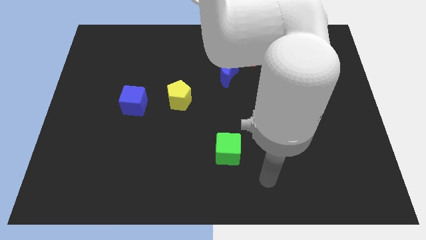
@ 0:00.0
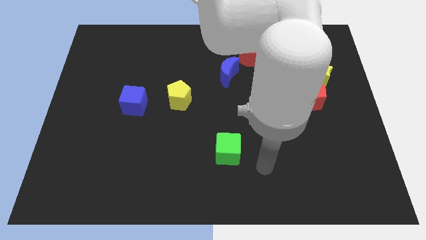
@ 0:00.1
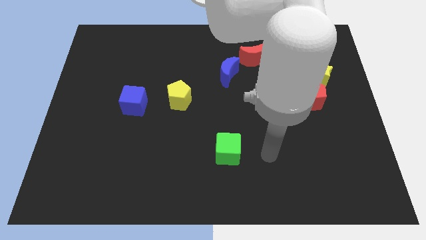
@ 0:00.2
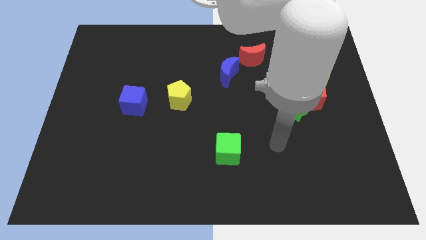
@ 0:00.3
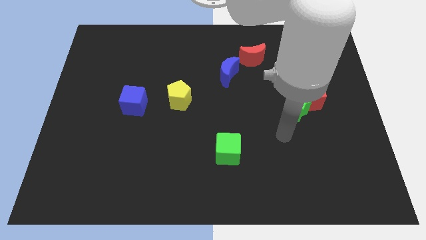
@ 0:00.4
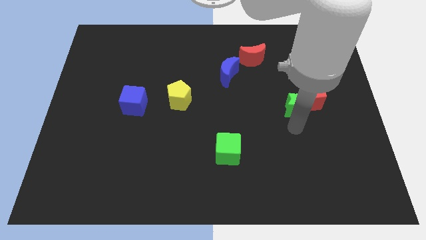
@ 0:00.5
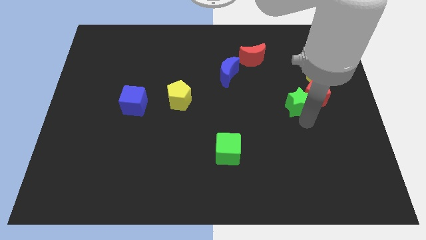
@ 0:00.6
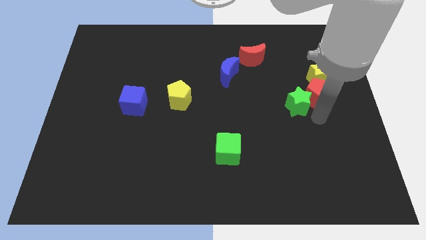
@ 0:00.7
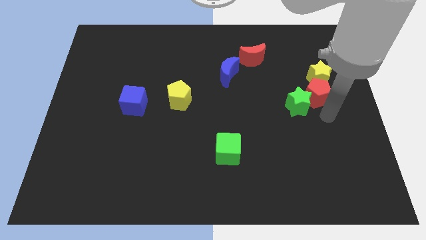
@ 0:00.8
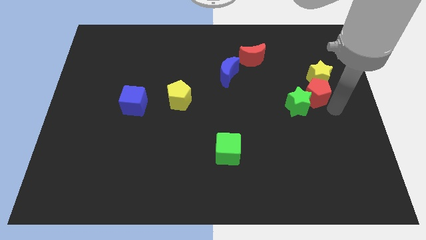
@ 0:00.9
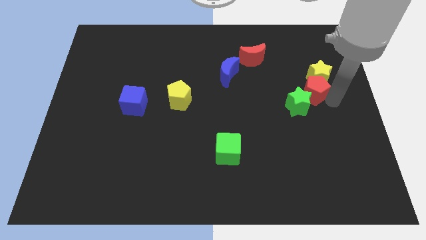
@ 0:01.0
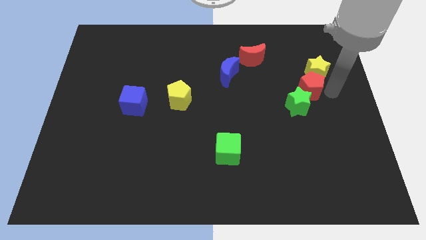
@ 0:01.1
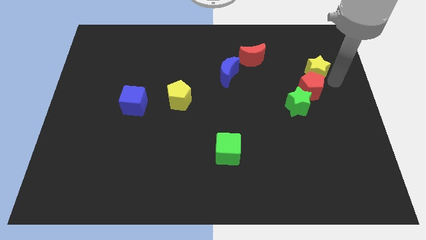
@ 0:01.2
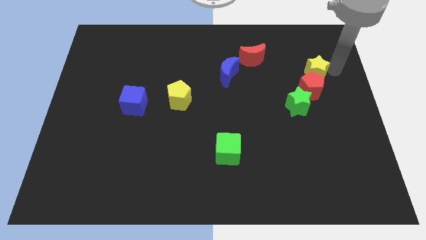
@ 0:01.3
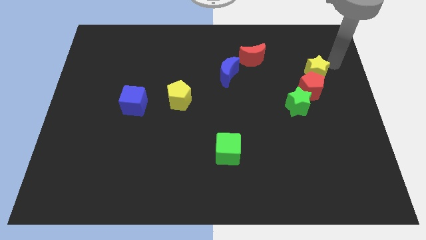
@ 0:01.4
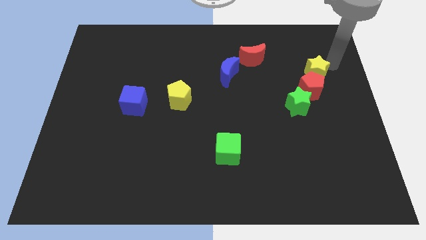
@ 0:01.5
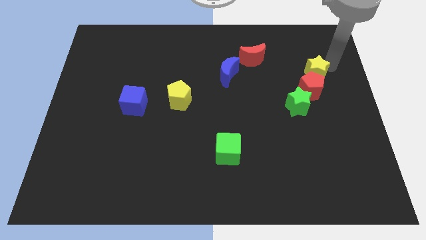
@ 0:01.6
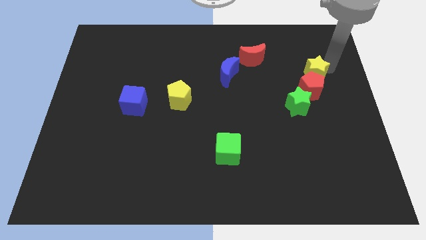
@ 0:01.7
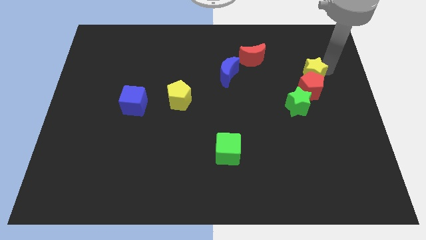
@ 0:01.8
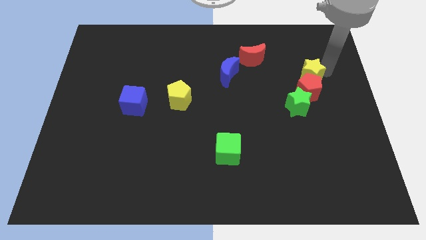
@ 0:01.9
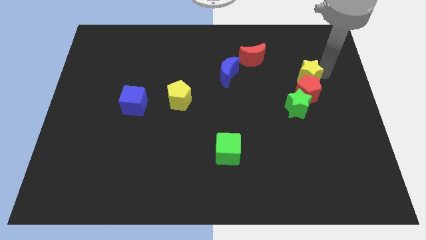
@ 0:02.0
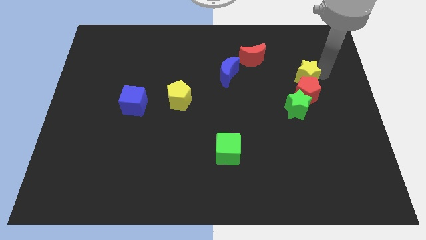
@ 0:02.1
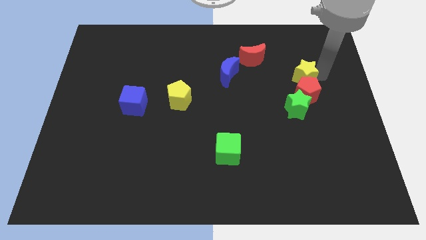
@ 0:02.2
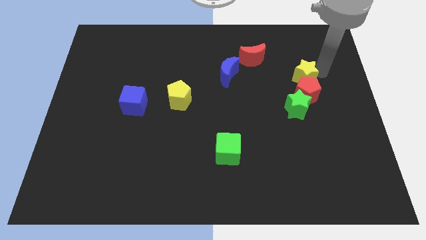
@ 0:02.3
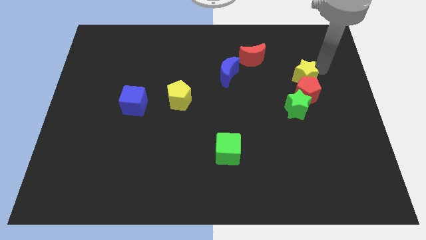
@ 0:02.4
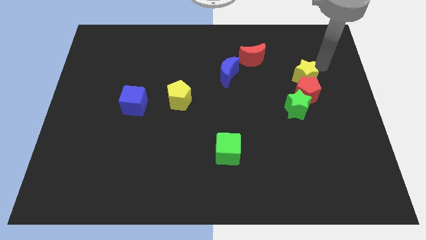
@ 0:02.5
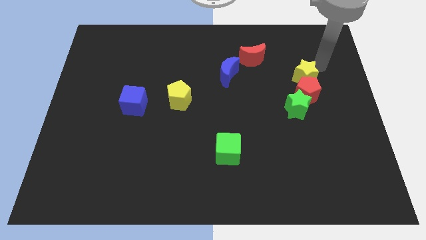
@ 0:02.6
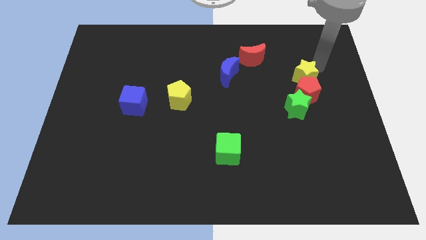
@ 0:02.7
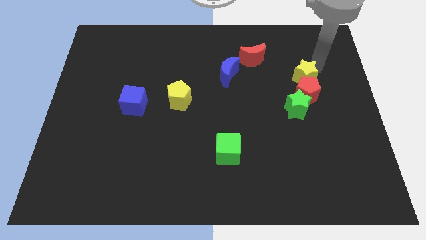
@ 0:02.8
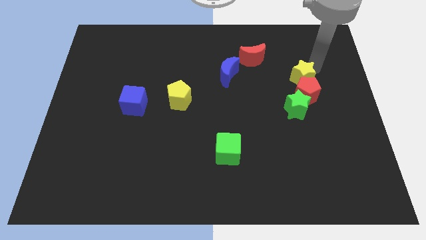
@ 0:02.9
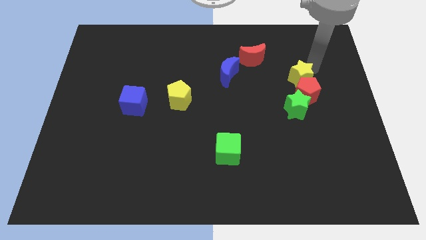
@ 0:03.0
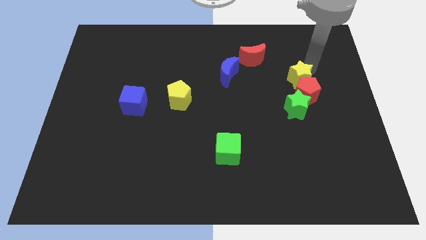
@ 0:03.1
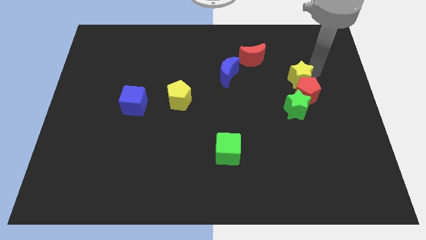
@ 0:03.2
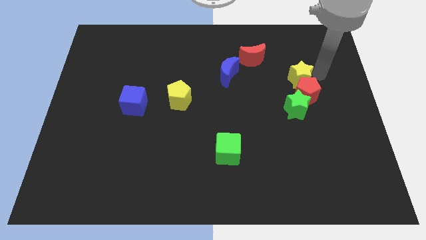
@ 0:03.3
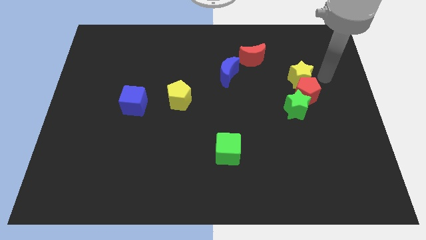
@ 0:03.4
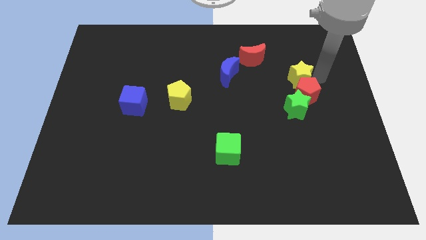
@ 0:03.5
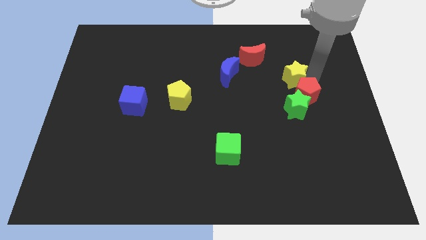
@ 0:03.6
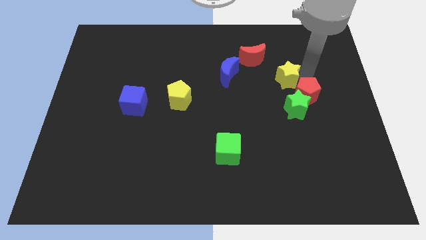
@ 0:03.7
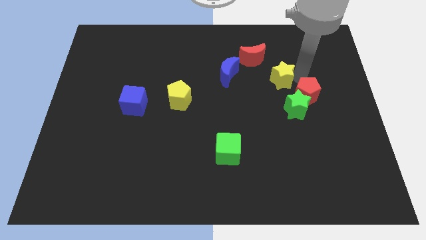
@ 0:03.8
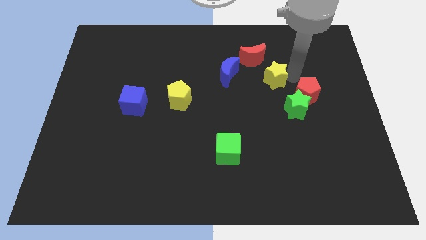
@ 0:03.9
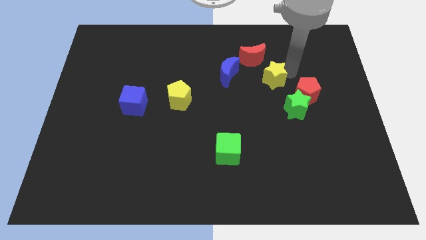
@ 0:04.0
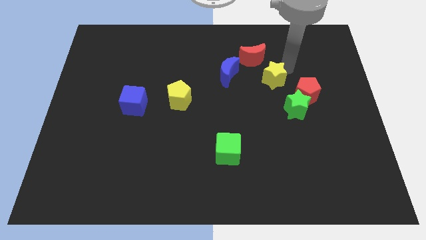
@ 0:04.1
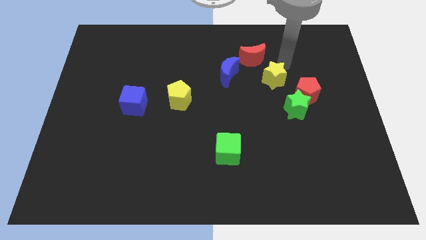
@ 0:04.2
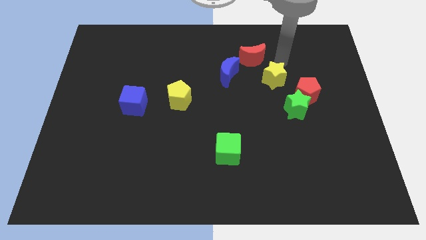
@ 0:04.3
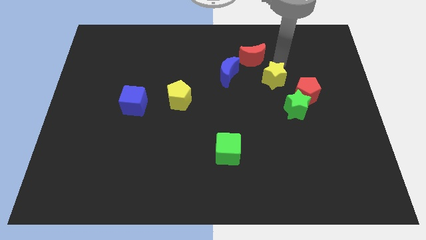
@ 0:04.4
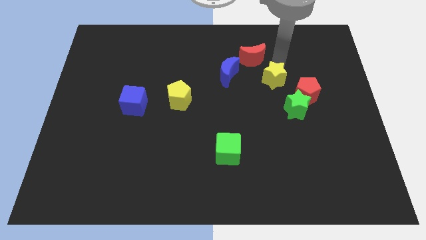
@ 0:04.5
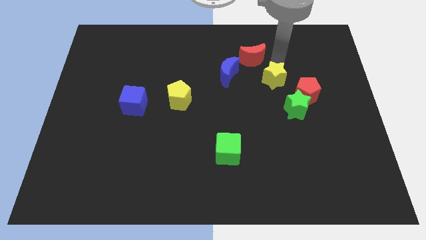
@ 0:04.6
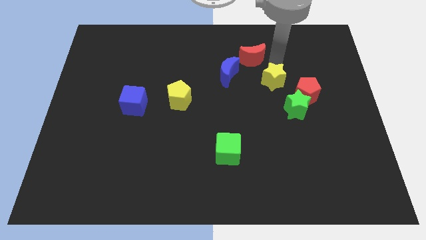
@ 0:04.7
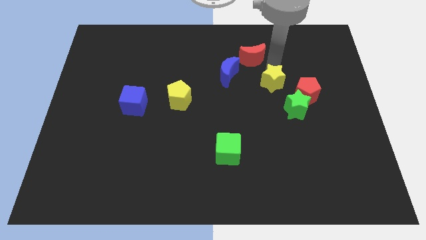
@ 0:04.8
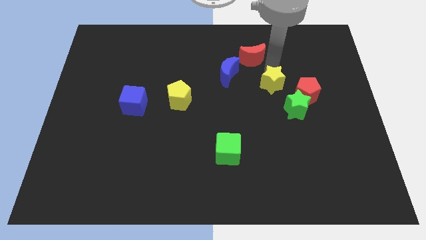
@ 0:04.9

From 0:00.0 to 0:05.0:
push the yellow star a little downwards and to the left diagonally

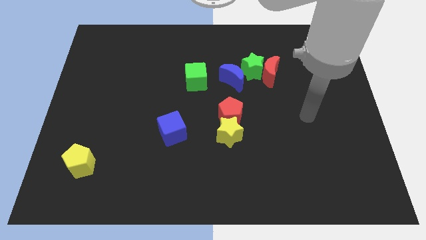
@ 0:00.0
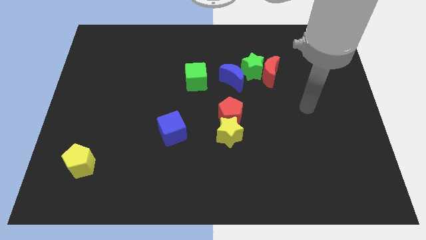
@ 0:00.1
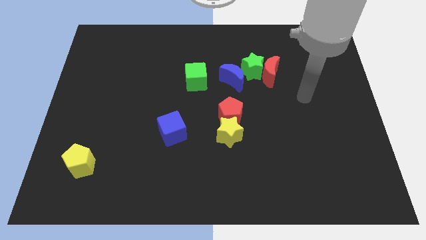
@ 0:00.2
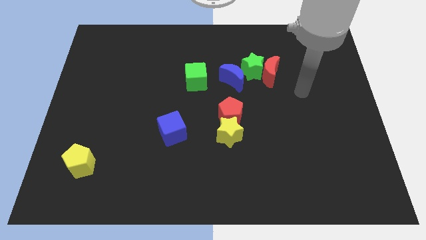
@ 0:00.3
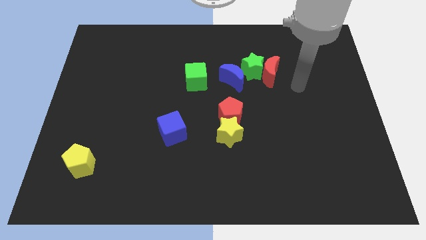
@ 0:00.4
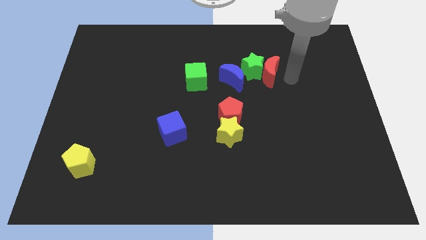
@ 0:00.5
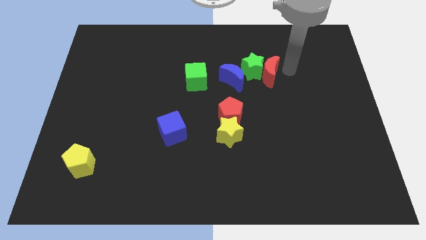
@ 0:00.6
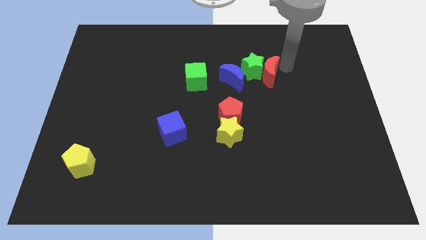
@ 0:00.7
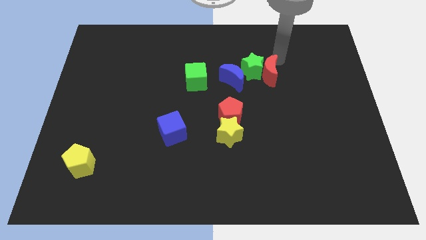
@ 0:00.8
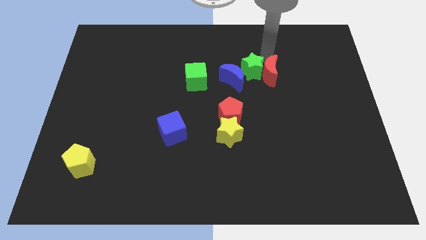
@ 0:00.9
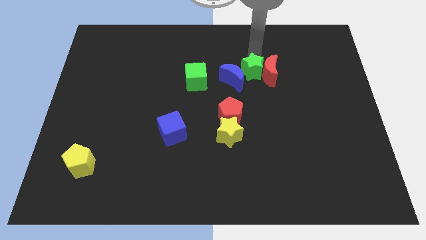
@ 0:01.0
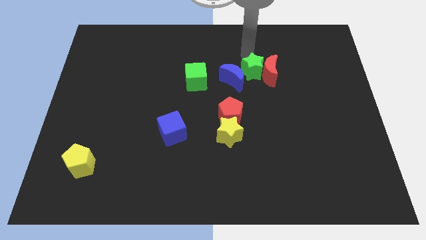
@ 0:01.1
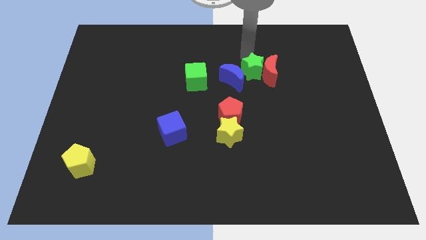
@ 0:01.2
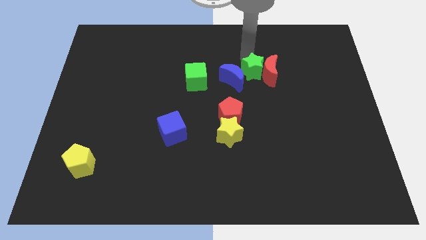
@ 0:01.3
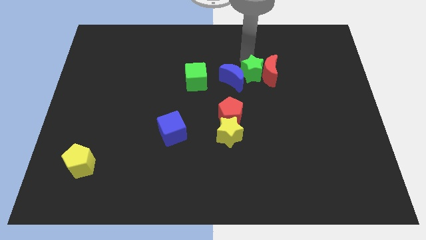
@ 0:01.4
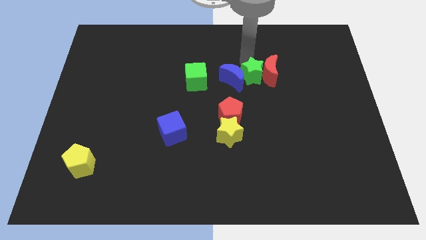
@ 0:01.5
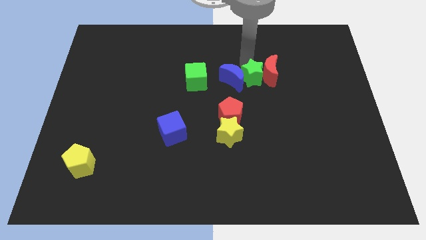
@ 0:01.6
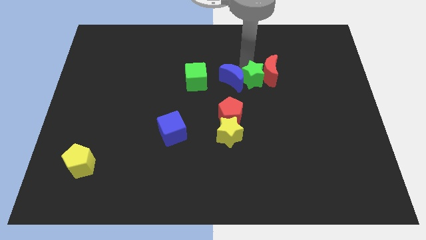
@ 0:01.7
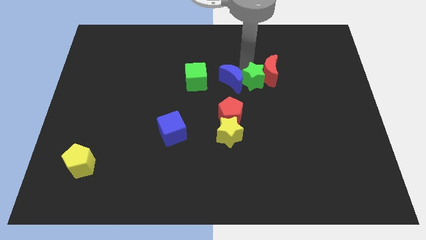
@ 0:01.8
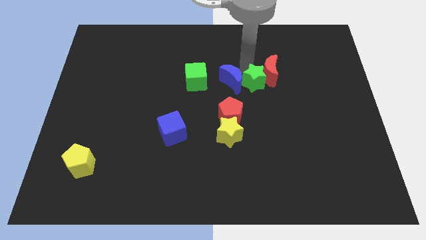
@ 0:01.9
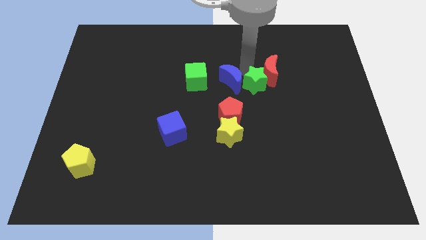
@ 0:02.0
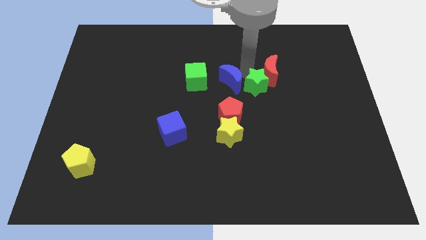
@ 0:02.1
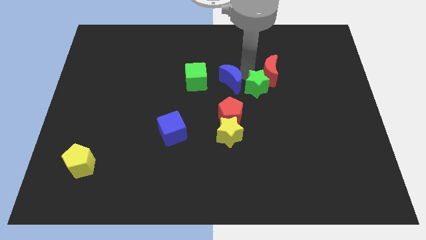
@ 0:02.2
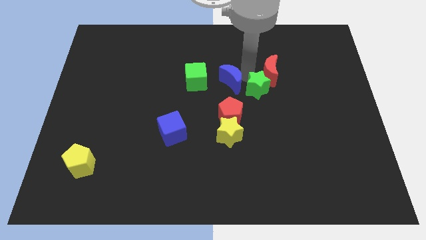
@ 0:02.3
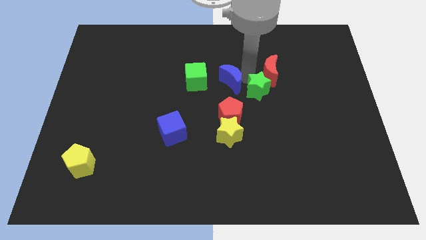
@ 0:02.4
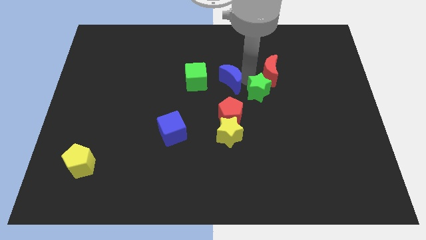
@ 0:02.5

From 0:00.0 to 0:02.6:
push the green star slightly downwards

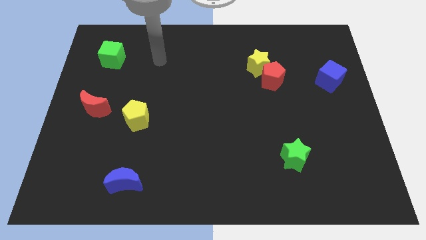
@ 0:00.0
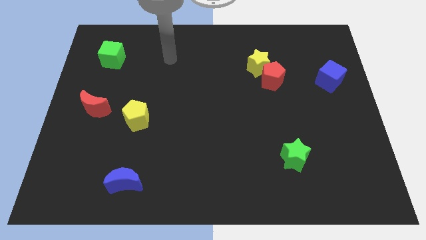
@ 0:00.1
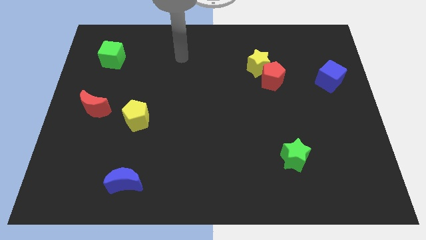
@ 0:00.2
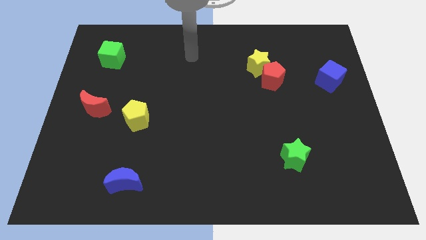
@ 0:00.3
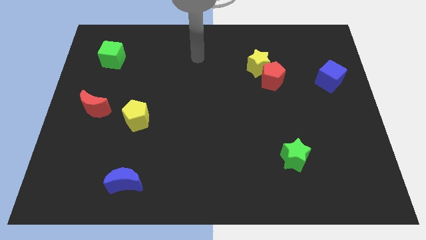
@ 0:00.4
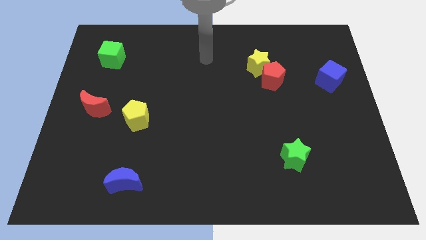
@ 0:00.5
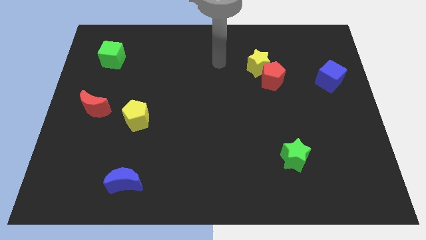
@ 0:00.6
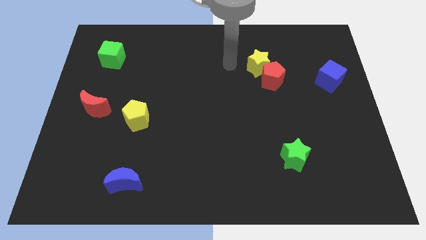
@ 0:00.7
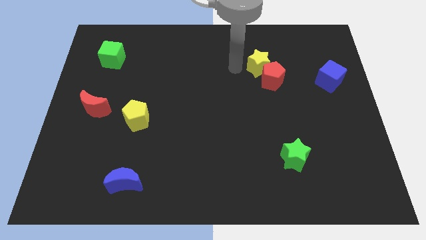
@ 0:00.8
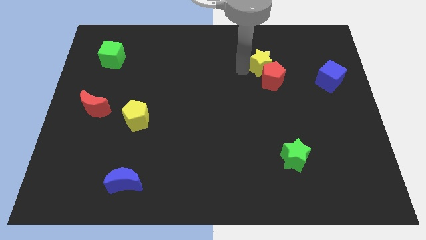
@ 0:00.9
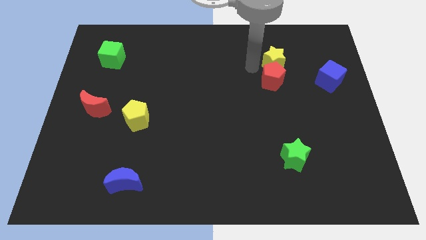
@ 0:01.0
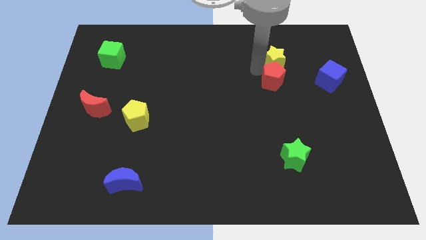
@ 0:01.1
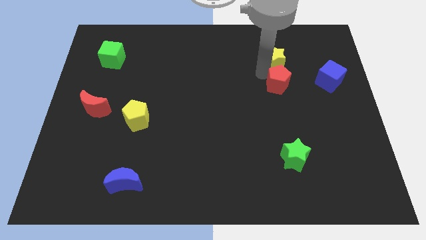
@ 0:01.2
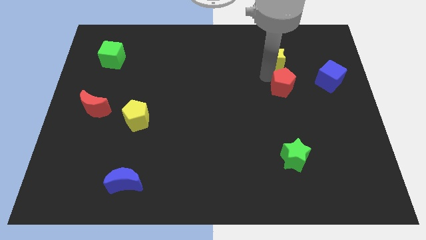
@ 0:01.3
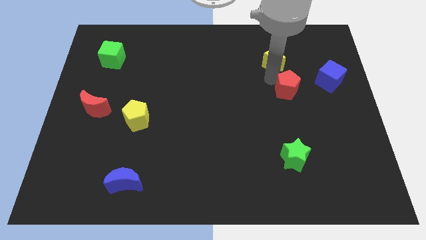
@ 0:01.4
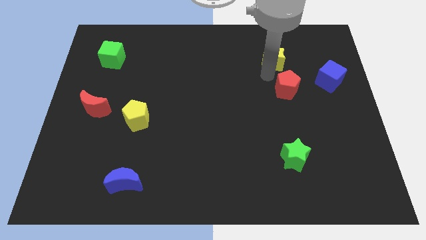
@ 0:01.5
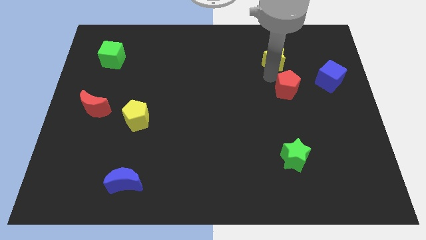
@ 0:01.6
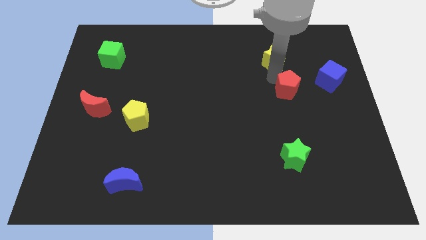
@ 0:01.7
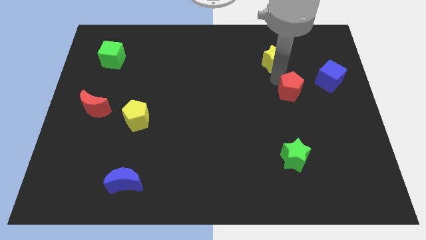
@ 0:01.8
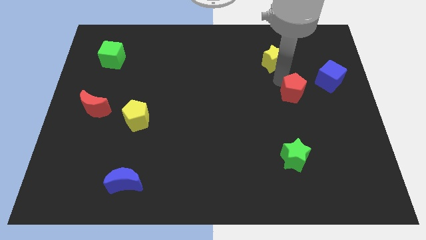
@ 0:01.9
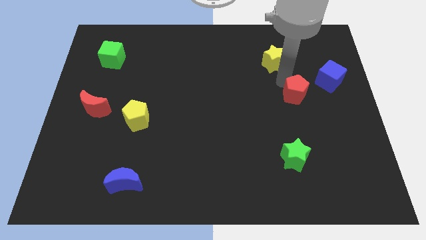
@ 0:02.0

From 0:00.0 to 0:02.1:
slightly slide the red pentagon diagonally down and to the right
